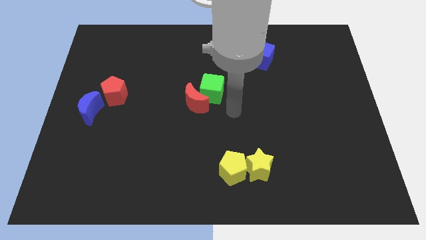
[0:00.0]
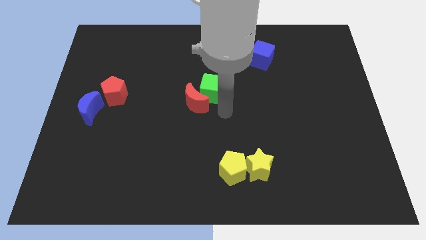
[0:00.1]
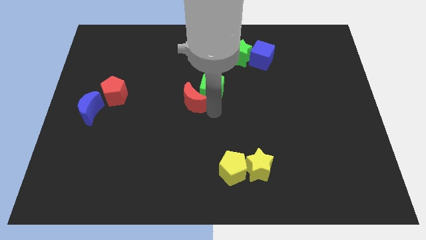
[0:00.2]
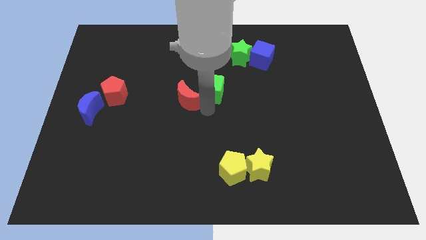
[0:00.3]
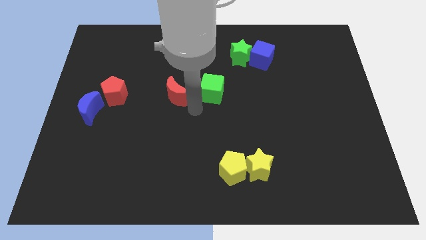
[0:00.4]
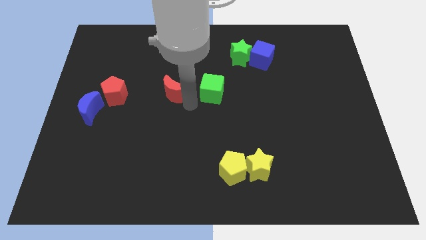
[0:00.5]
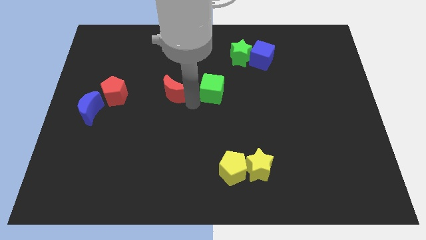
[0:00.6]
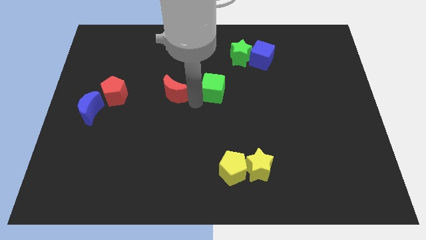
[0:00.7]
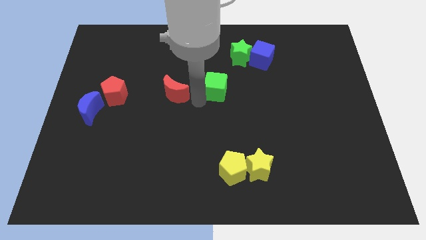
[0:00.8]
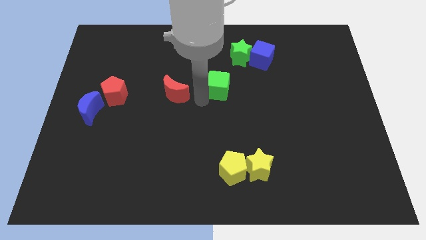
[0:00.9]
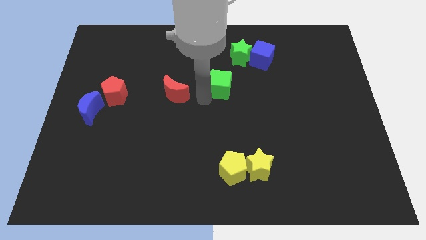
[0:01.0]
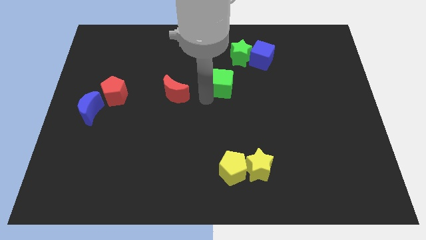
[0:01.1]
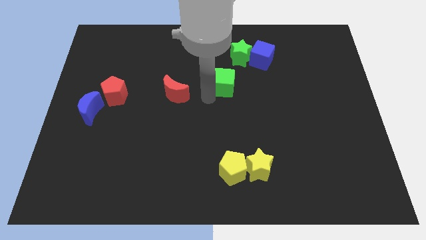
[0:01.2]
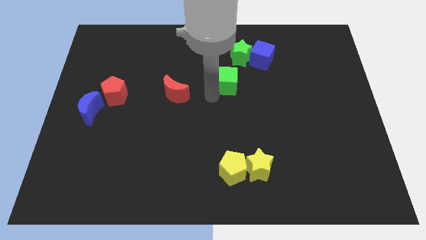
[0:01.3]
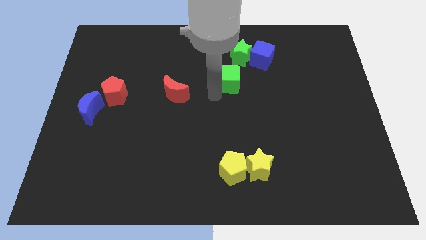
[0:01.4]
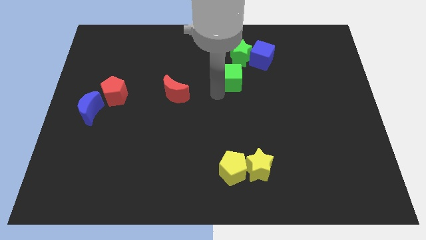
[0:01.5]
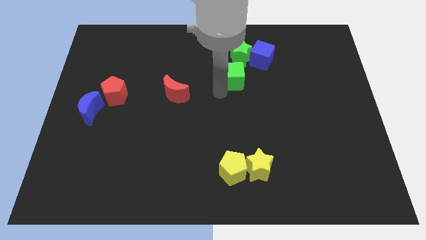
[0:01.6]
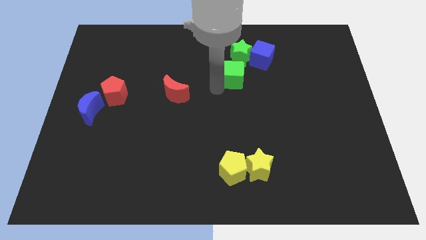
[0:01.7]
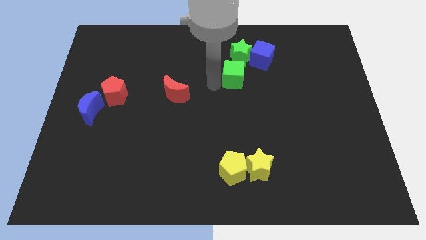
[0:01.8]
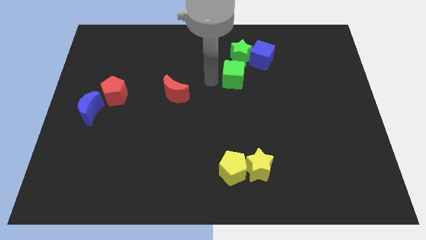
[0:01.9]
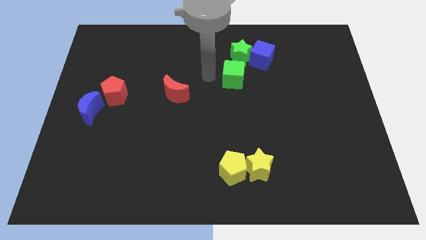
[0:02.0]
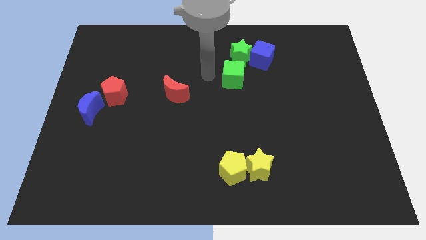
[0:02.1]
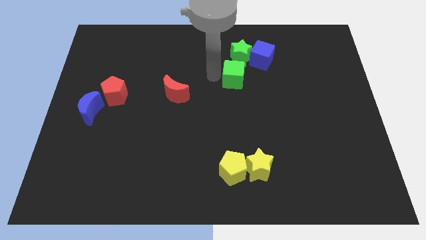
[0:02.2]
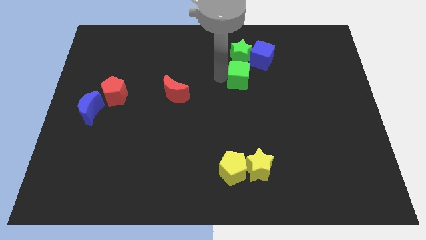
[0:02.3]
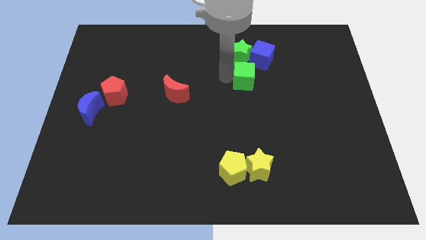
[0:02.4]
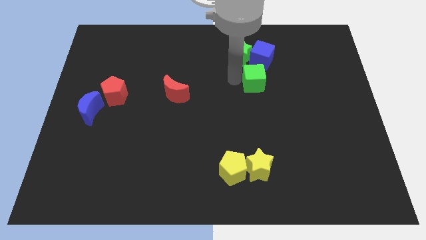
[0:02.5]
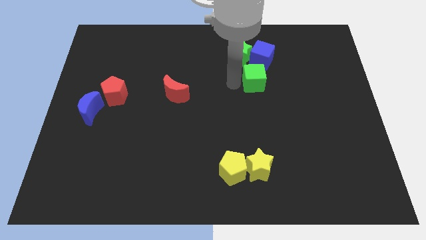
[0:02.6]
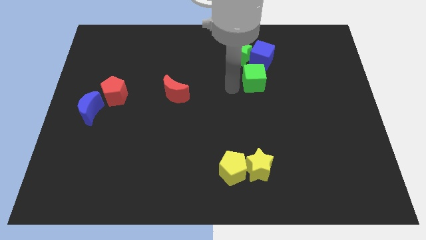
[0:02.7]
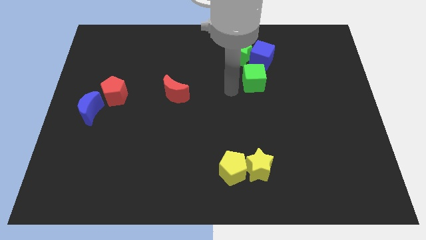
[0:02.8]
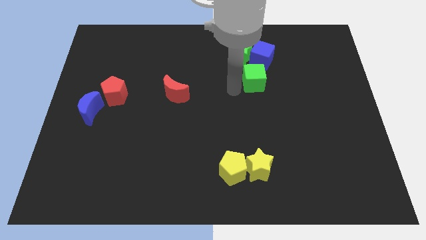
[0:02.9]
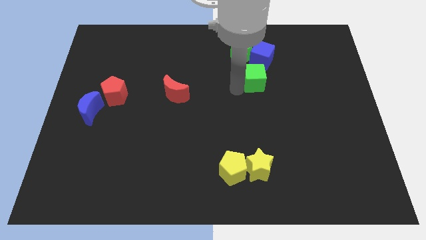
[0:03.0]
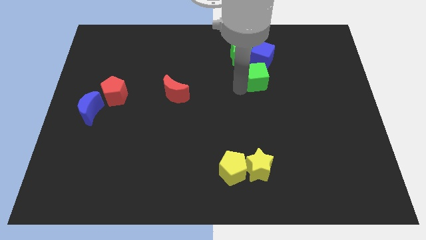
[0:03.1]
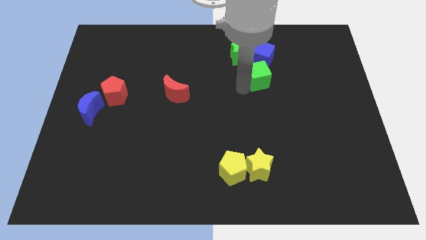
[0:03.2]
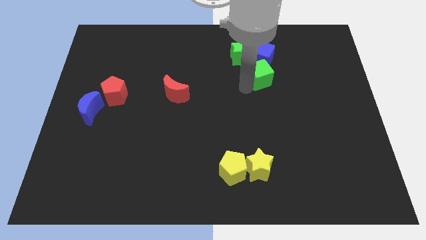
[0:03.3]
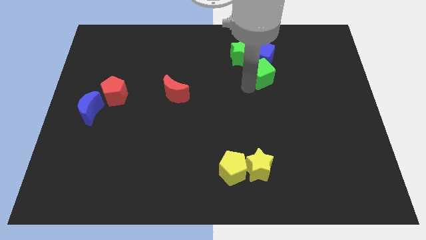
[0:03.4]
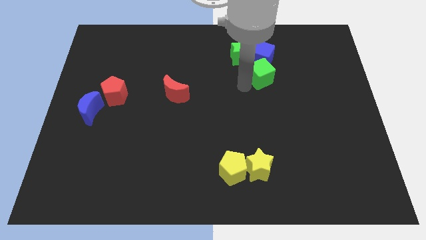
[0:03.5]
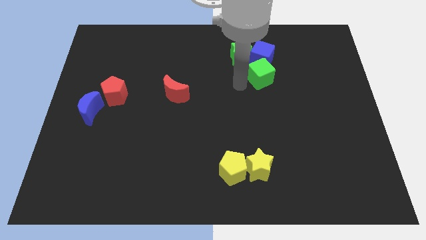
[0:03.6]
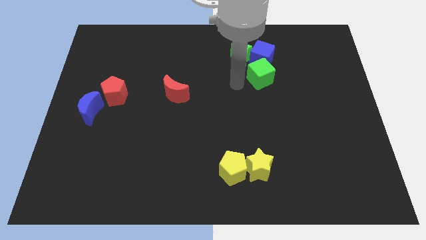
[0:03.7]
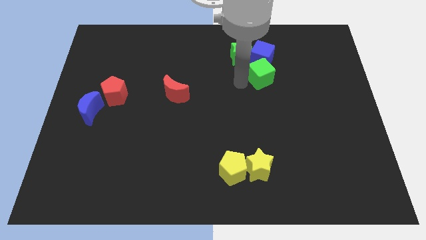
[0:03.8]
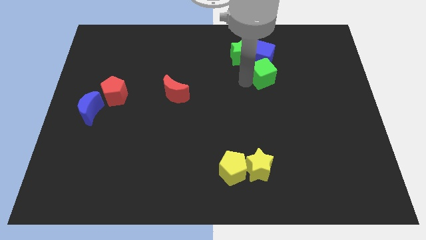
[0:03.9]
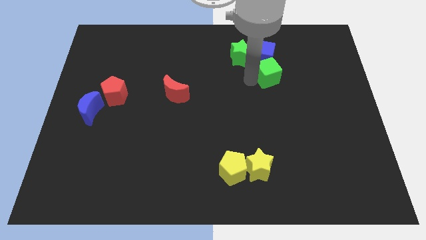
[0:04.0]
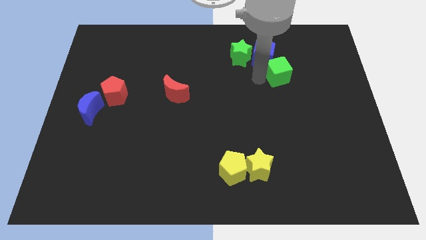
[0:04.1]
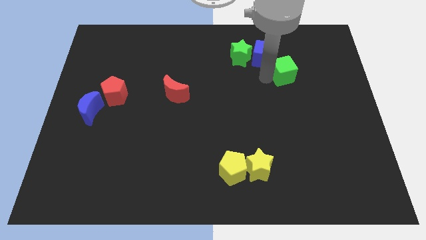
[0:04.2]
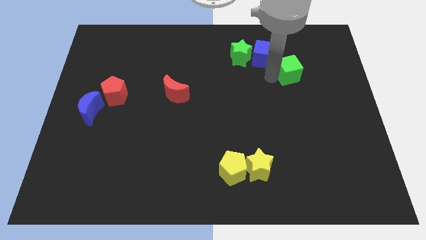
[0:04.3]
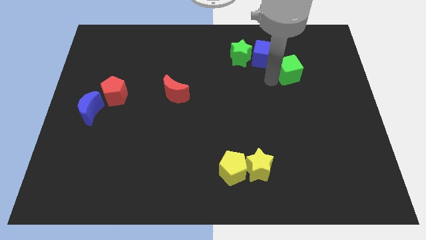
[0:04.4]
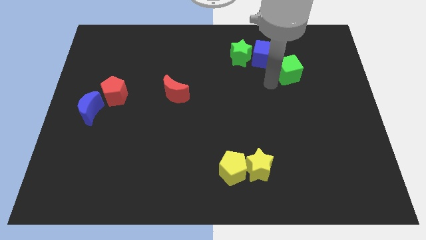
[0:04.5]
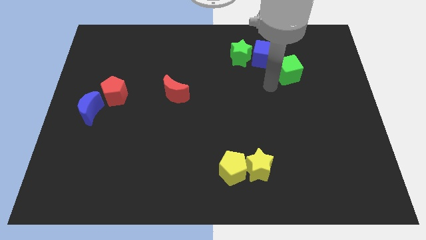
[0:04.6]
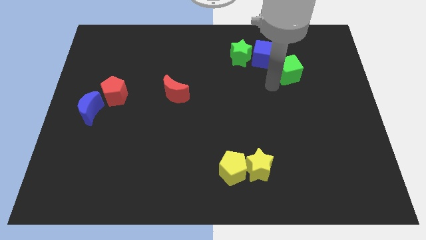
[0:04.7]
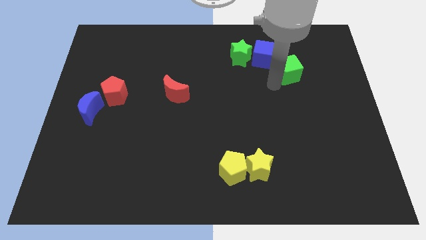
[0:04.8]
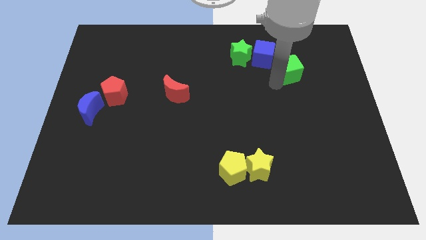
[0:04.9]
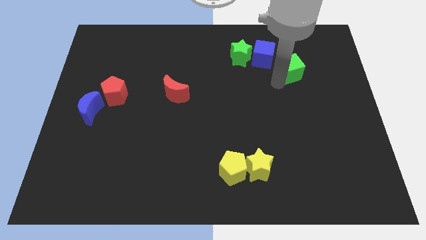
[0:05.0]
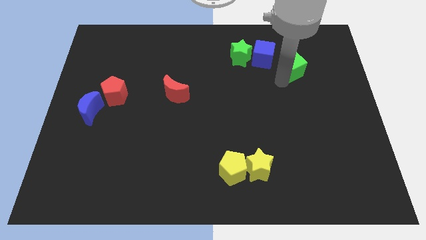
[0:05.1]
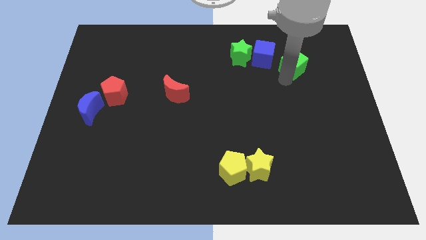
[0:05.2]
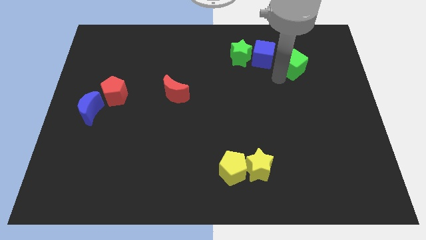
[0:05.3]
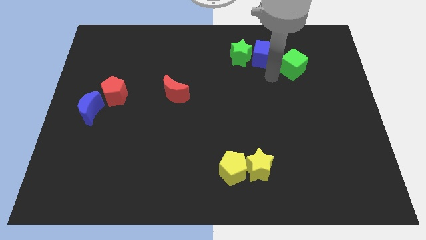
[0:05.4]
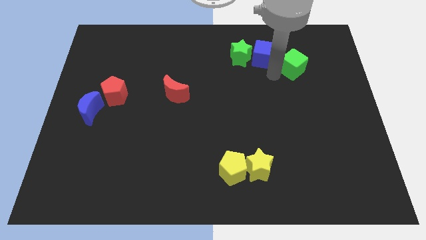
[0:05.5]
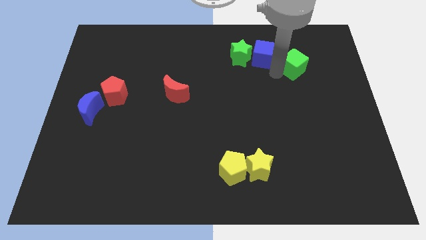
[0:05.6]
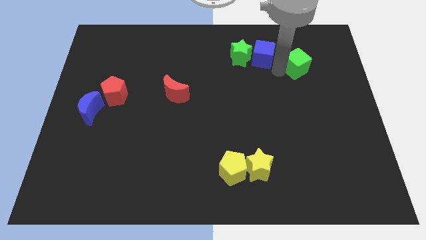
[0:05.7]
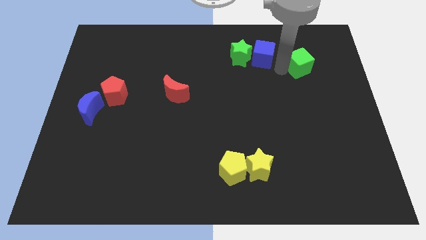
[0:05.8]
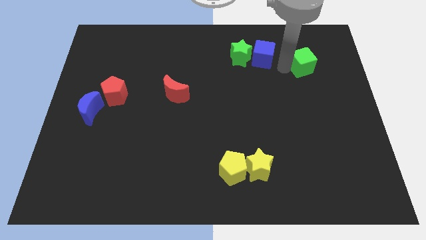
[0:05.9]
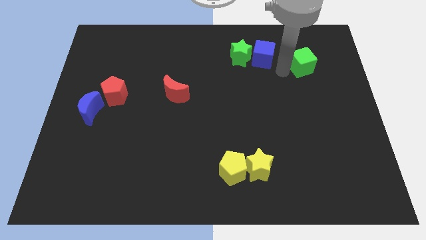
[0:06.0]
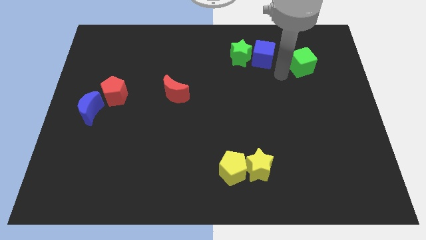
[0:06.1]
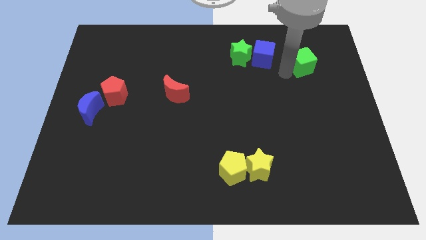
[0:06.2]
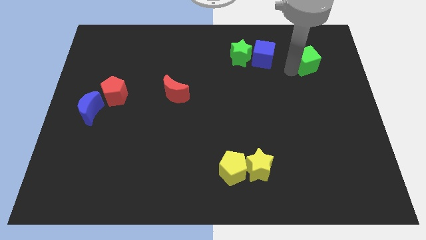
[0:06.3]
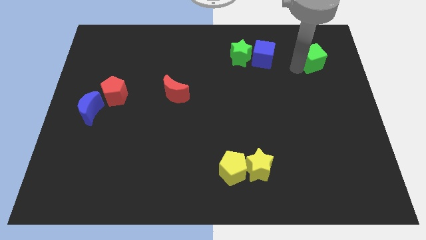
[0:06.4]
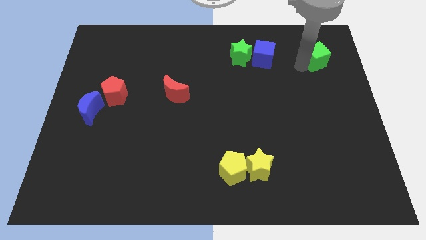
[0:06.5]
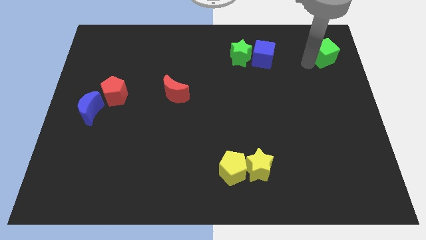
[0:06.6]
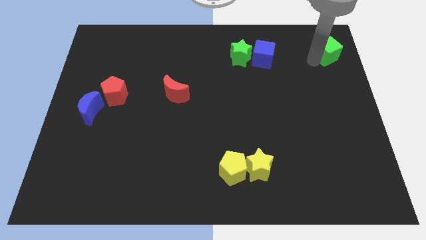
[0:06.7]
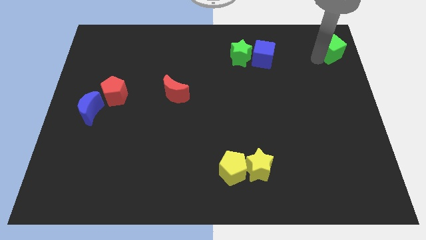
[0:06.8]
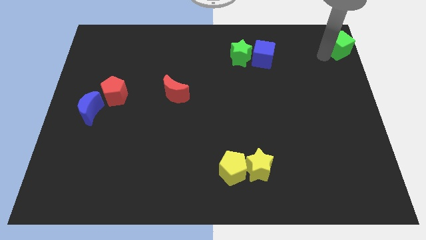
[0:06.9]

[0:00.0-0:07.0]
put the green cube to the top right corner
